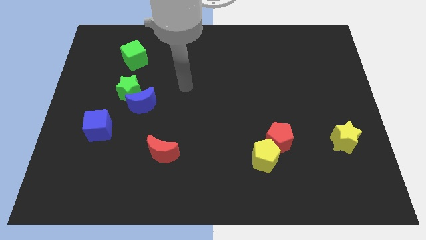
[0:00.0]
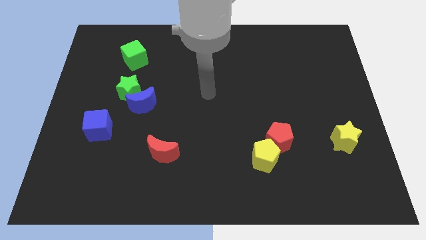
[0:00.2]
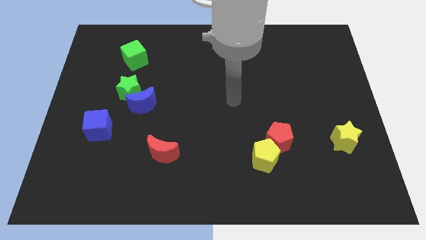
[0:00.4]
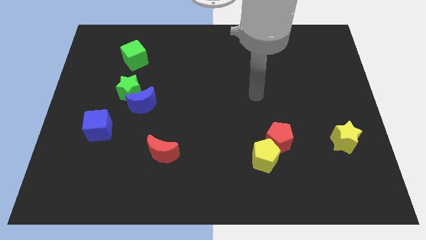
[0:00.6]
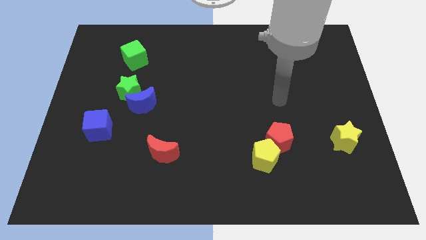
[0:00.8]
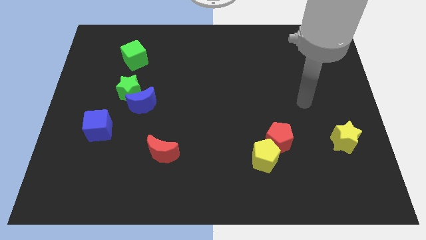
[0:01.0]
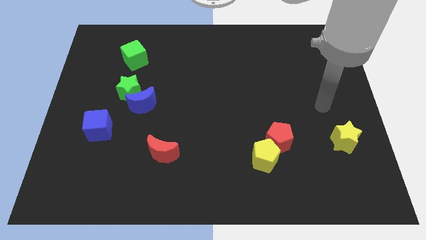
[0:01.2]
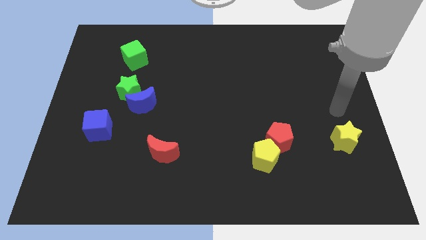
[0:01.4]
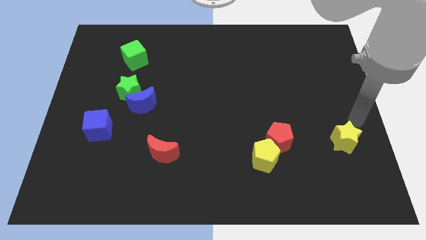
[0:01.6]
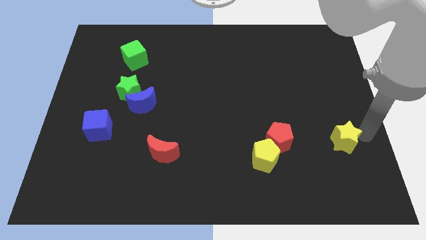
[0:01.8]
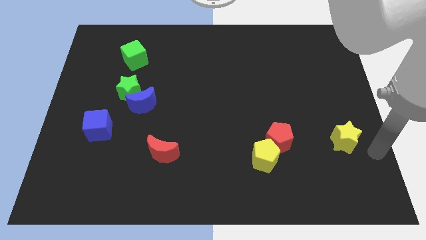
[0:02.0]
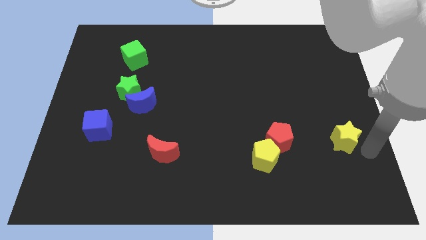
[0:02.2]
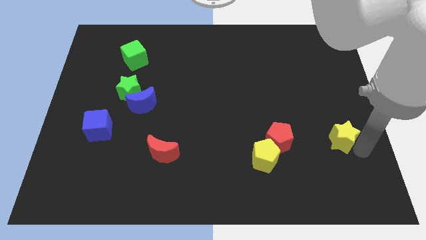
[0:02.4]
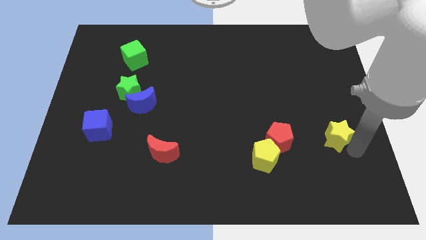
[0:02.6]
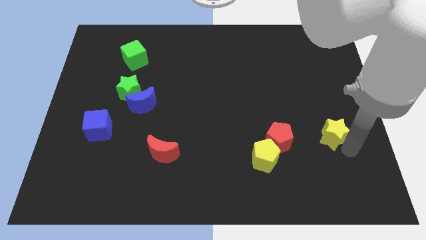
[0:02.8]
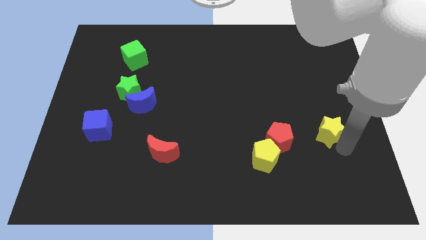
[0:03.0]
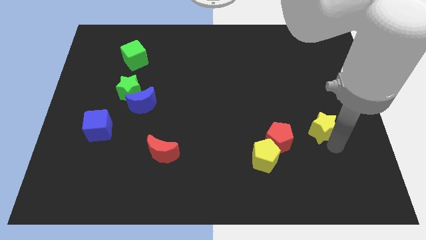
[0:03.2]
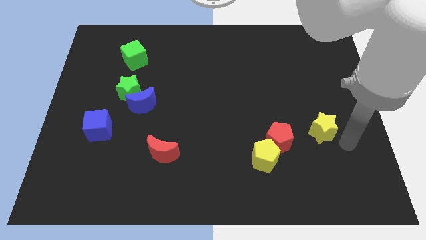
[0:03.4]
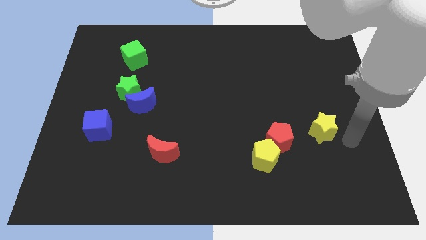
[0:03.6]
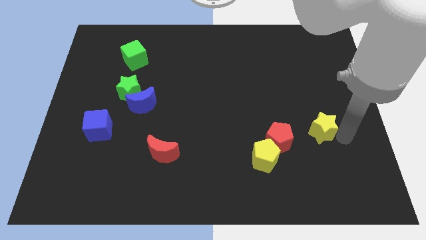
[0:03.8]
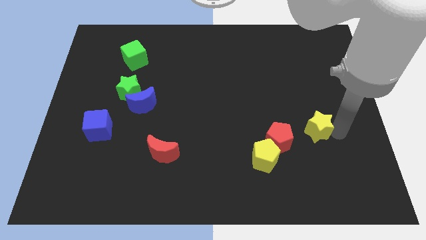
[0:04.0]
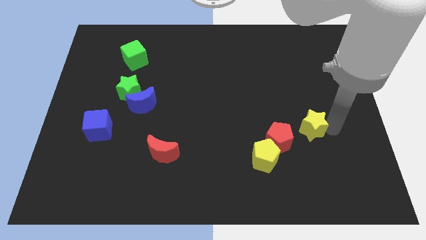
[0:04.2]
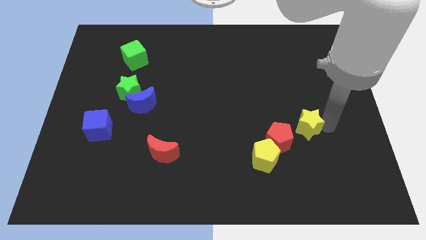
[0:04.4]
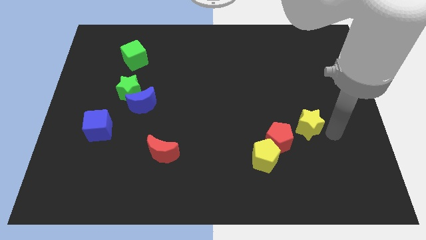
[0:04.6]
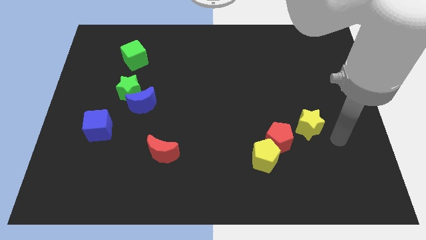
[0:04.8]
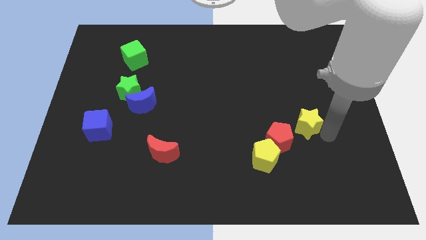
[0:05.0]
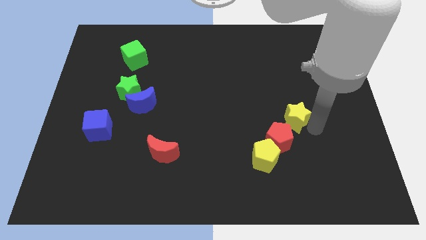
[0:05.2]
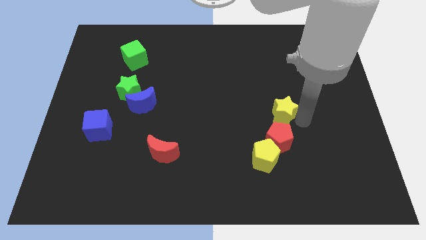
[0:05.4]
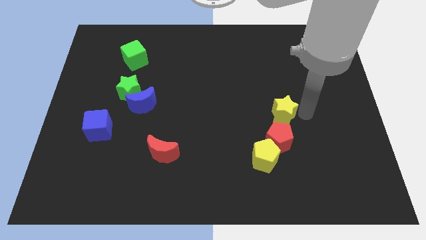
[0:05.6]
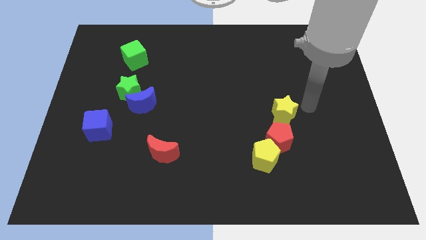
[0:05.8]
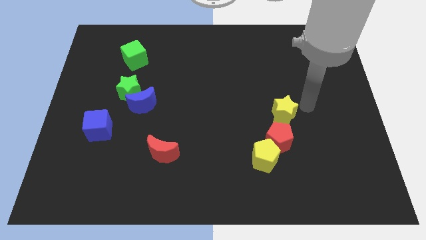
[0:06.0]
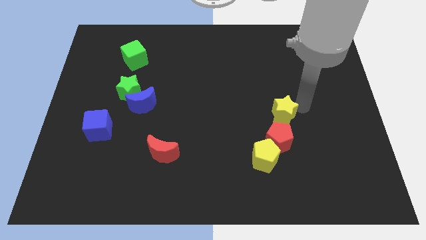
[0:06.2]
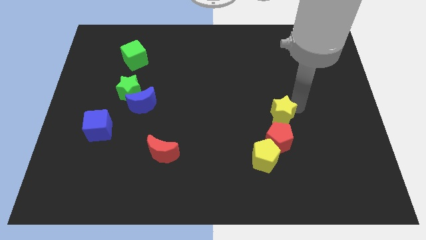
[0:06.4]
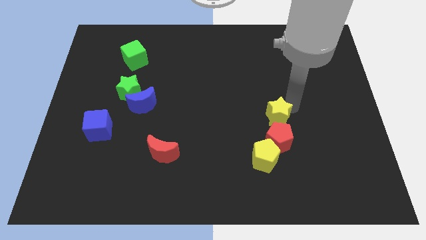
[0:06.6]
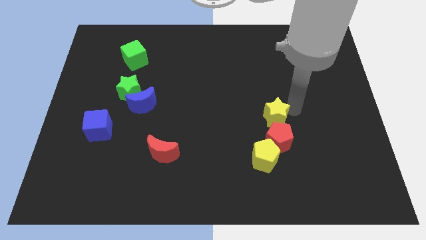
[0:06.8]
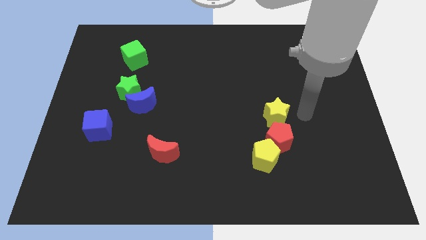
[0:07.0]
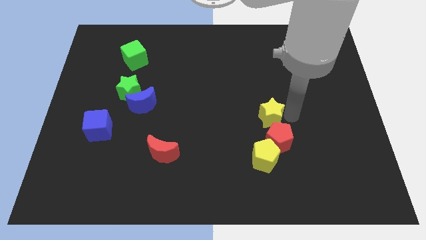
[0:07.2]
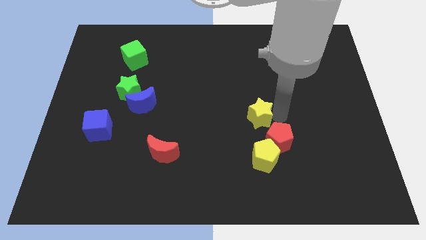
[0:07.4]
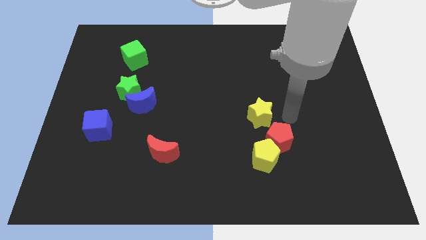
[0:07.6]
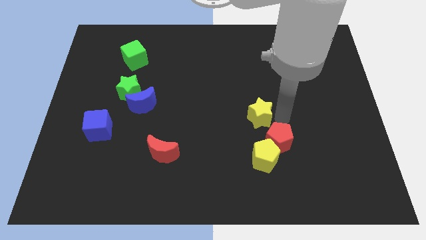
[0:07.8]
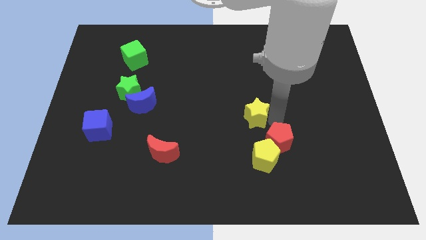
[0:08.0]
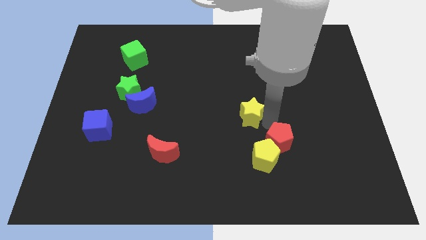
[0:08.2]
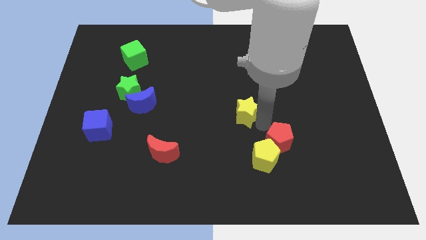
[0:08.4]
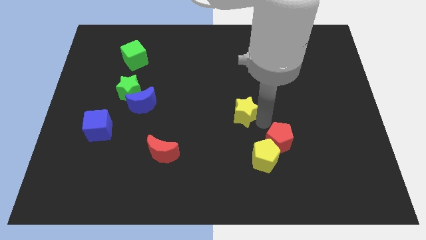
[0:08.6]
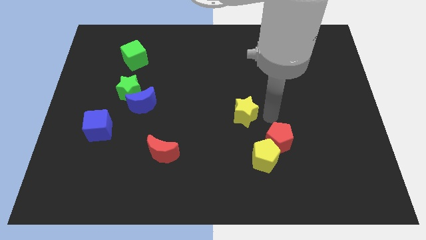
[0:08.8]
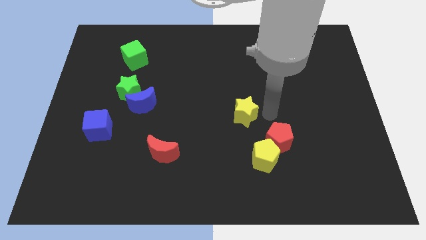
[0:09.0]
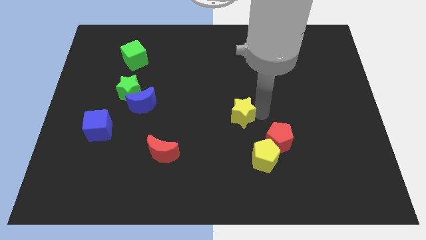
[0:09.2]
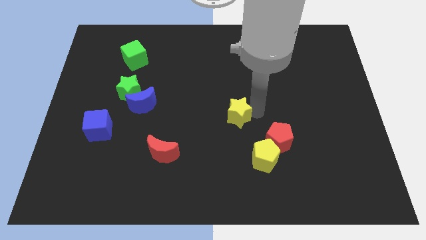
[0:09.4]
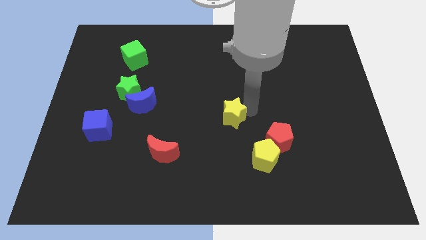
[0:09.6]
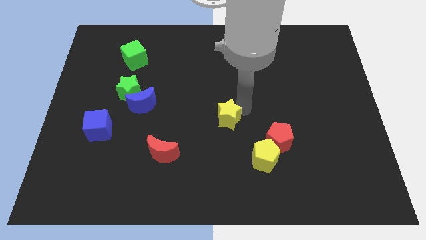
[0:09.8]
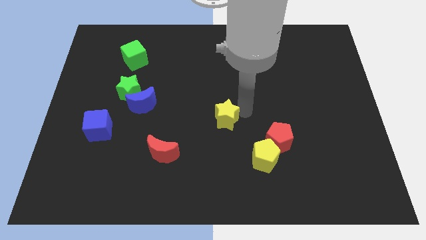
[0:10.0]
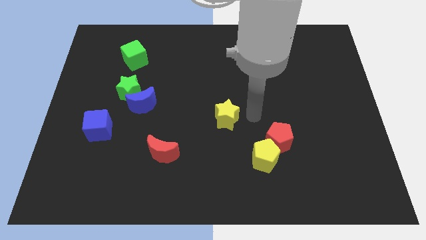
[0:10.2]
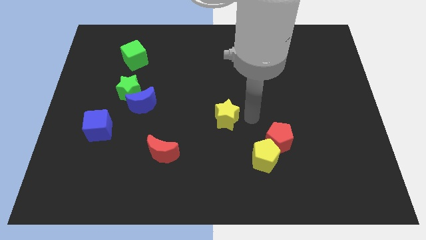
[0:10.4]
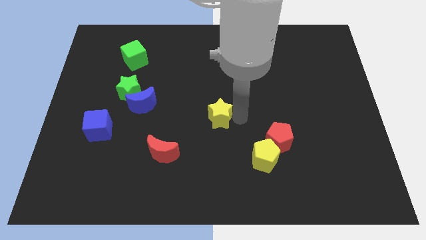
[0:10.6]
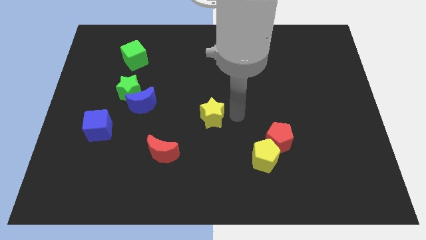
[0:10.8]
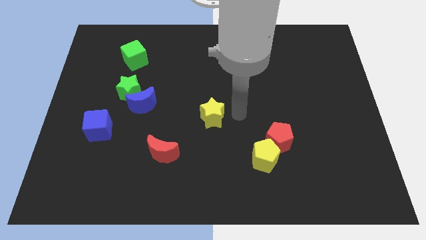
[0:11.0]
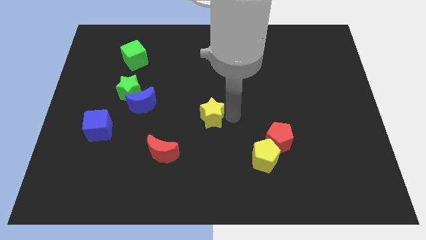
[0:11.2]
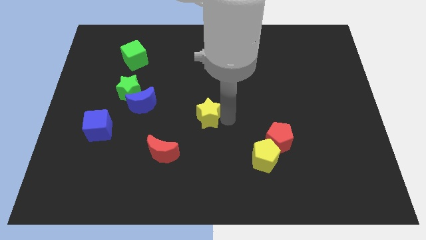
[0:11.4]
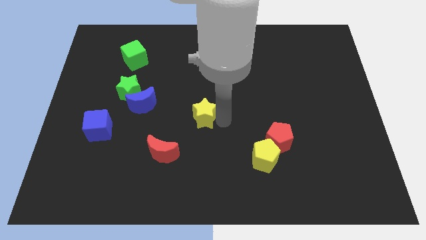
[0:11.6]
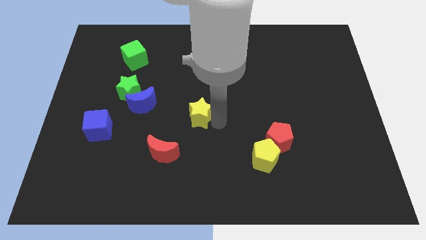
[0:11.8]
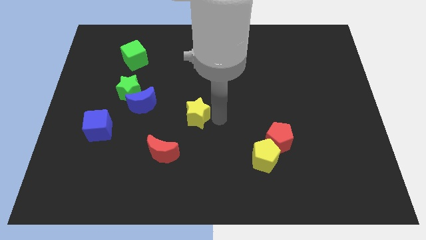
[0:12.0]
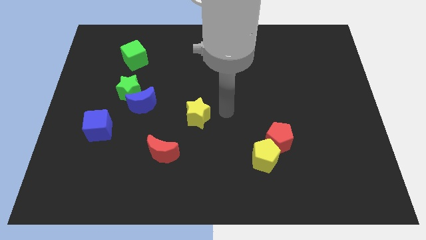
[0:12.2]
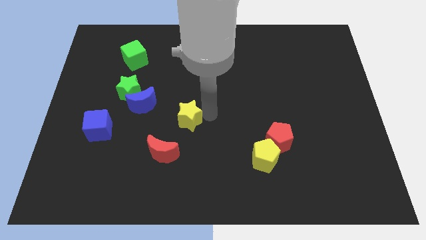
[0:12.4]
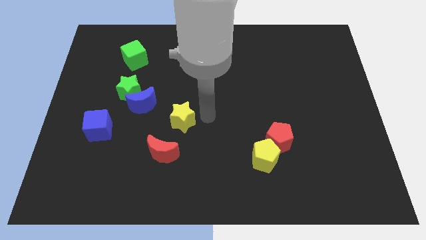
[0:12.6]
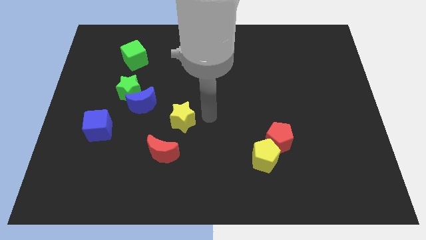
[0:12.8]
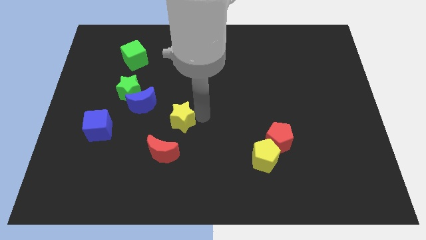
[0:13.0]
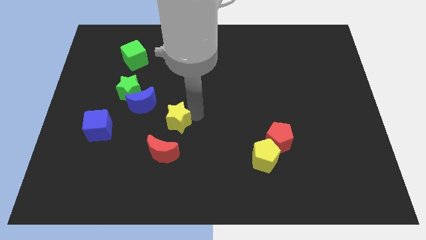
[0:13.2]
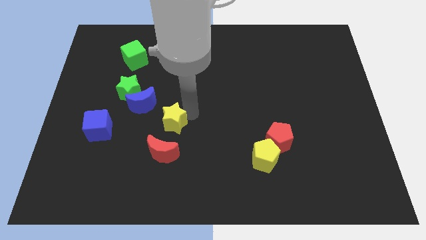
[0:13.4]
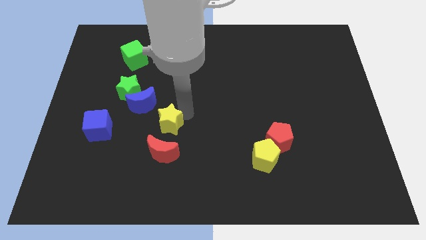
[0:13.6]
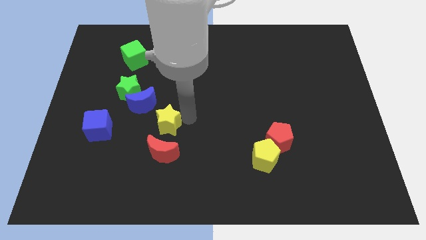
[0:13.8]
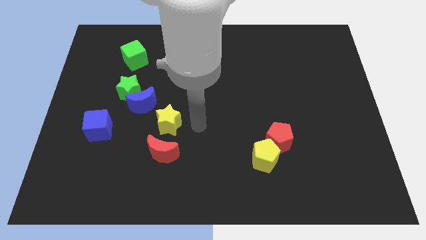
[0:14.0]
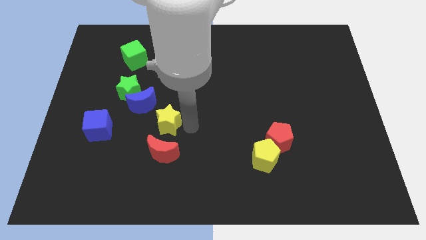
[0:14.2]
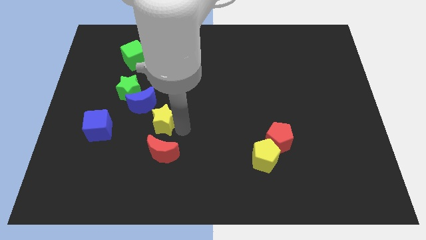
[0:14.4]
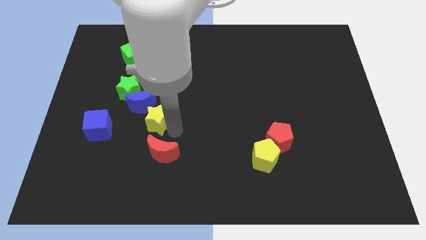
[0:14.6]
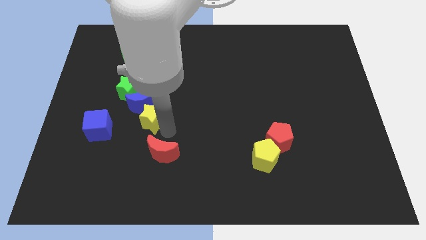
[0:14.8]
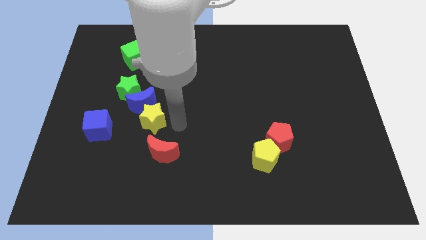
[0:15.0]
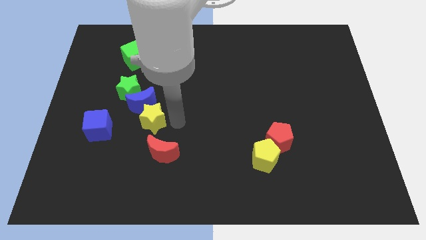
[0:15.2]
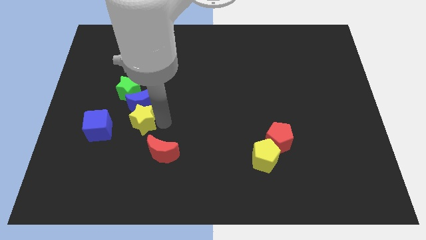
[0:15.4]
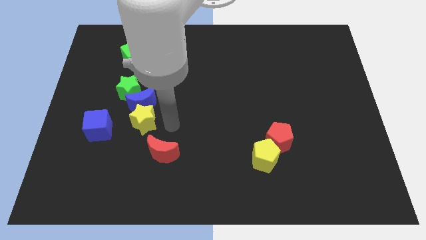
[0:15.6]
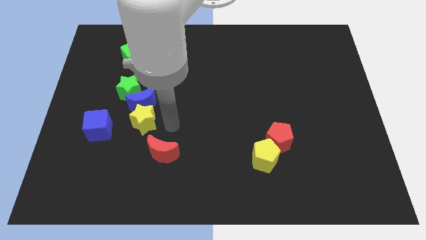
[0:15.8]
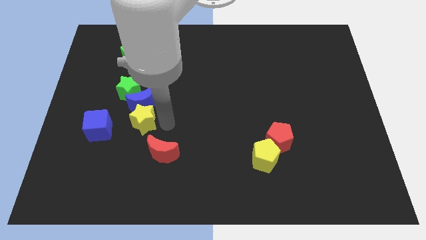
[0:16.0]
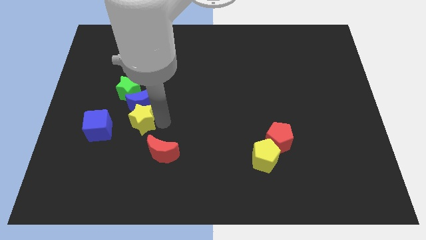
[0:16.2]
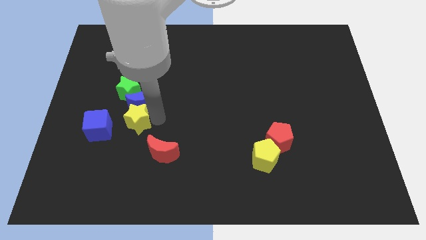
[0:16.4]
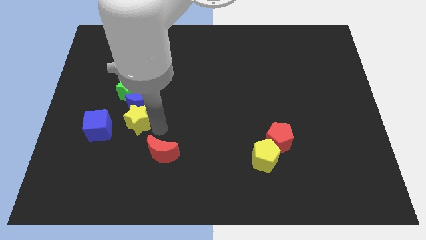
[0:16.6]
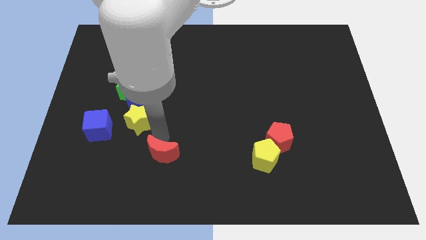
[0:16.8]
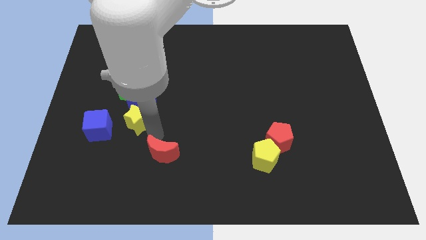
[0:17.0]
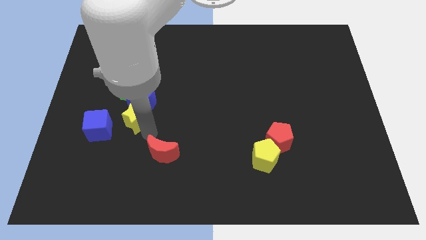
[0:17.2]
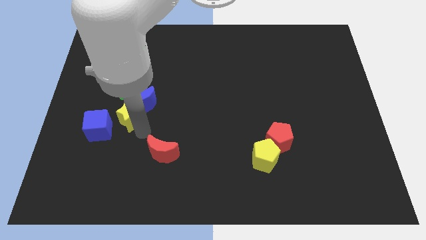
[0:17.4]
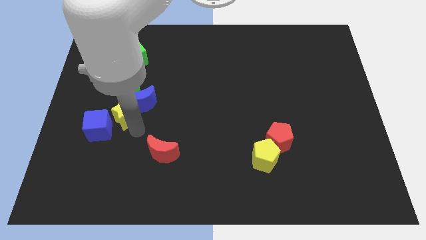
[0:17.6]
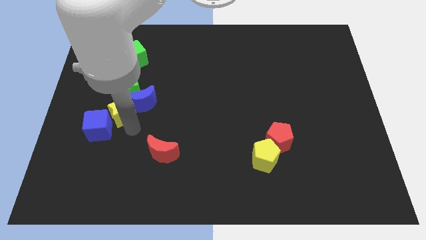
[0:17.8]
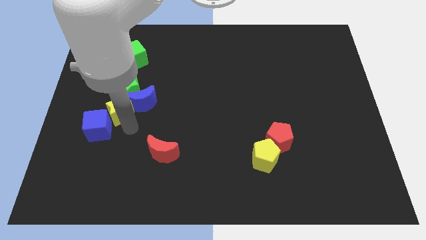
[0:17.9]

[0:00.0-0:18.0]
move the yellow star above the blue cube
